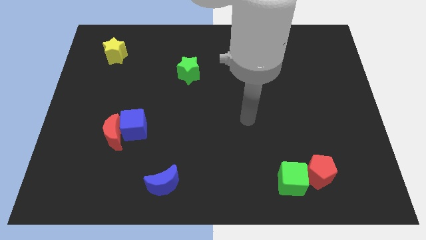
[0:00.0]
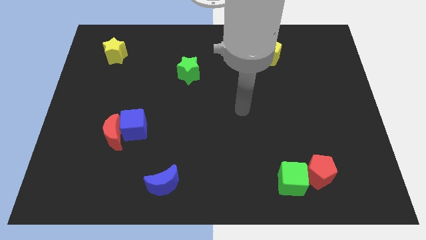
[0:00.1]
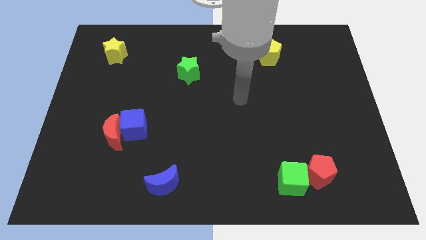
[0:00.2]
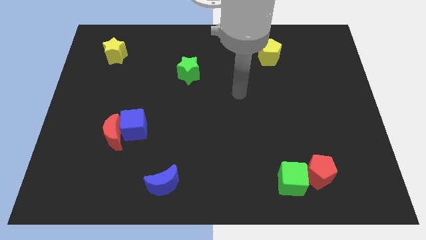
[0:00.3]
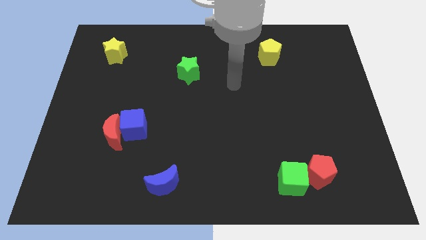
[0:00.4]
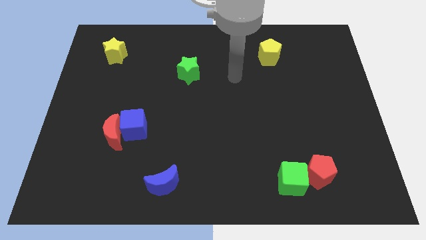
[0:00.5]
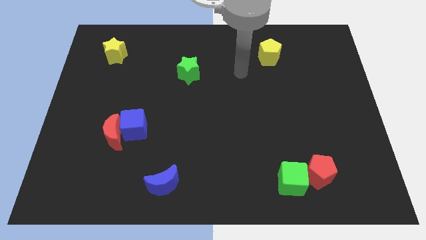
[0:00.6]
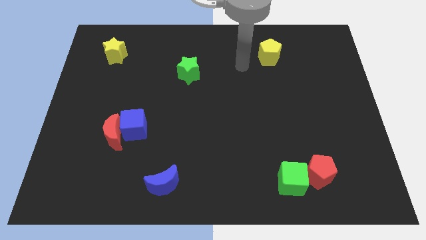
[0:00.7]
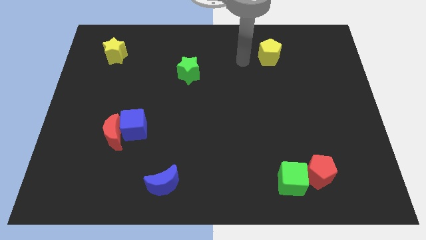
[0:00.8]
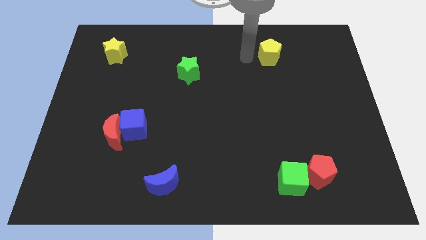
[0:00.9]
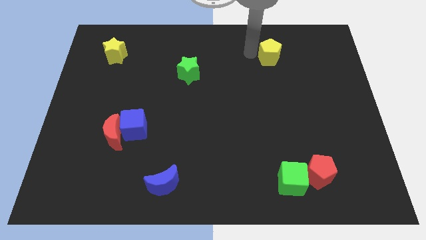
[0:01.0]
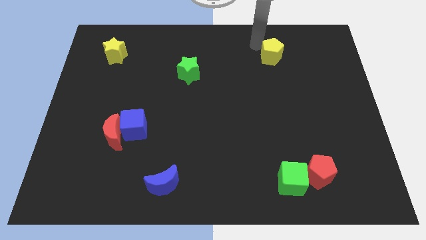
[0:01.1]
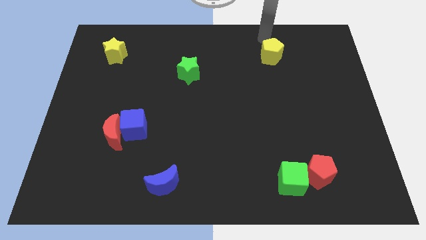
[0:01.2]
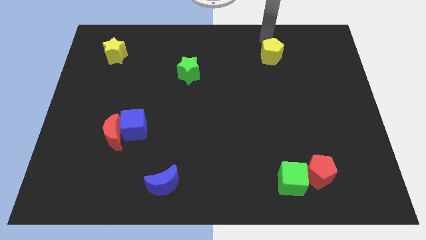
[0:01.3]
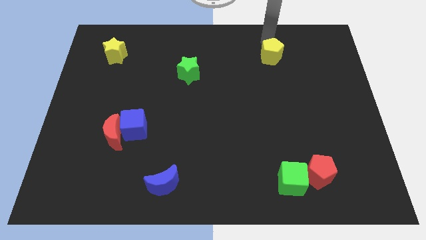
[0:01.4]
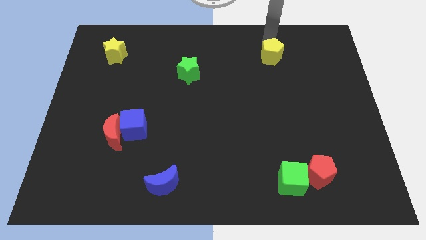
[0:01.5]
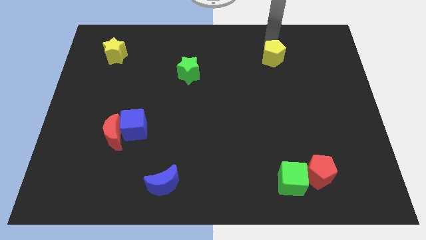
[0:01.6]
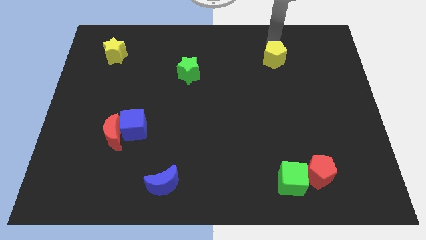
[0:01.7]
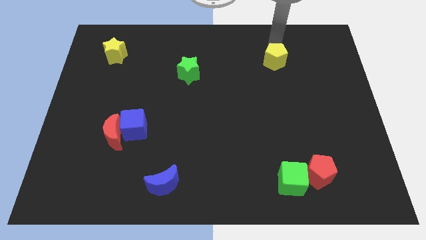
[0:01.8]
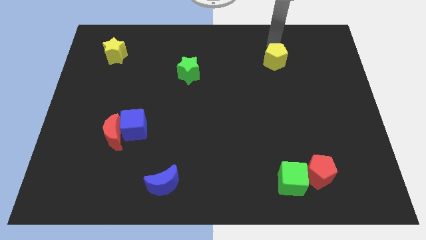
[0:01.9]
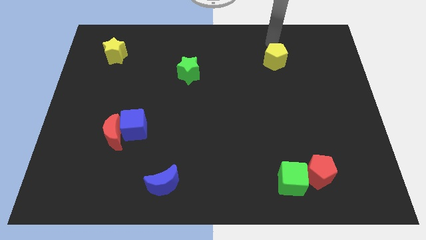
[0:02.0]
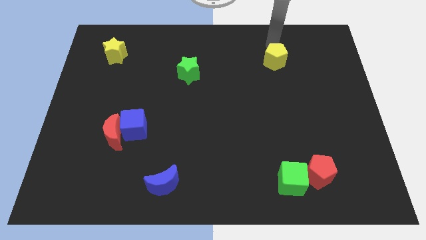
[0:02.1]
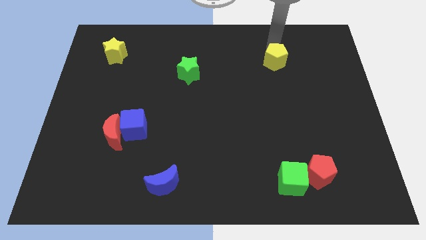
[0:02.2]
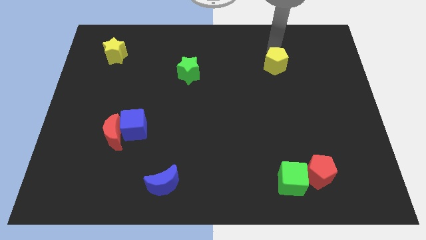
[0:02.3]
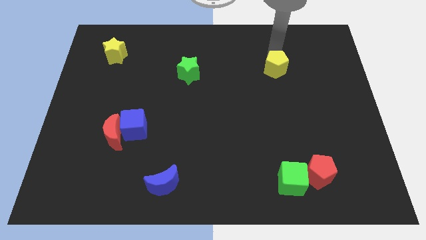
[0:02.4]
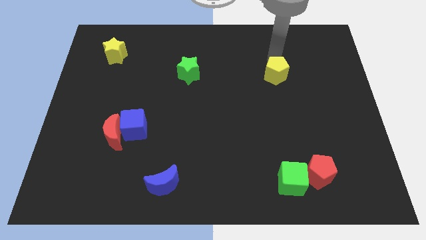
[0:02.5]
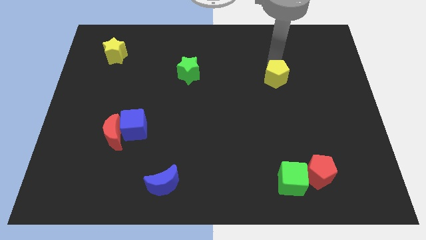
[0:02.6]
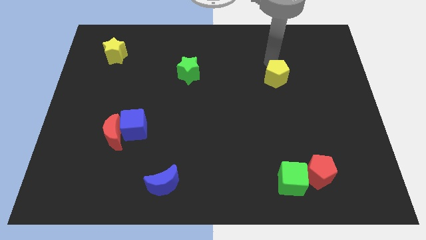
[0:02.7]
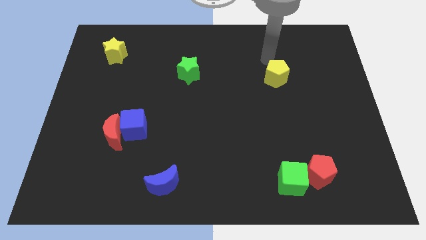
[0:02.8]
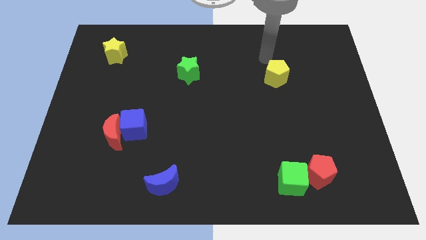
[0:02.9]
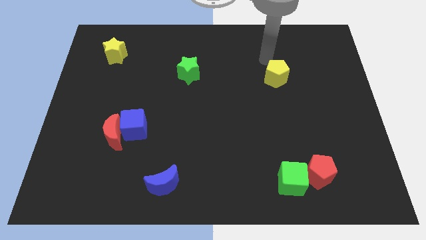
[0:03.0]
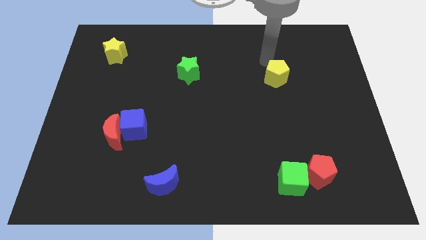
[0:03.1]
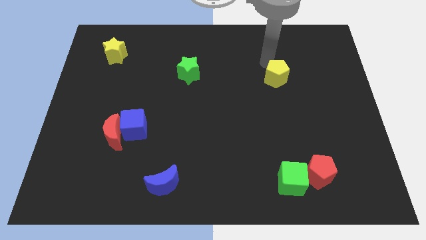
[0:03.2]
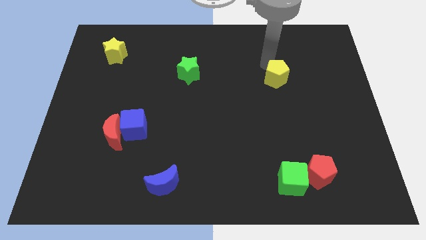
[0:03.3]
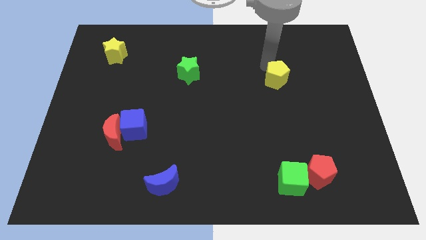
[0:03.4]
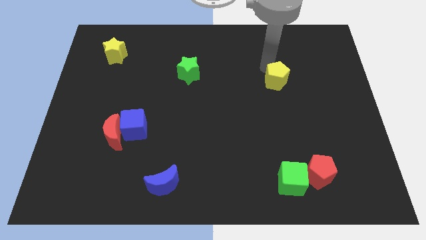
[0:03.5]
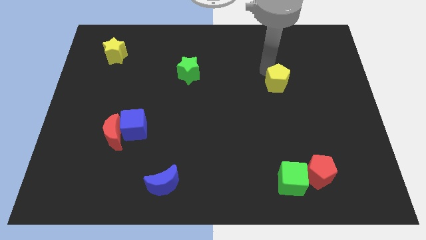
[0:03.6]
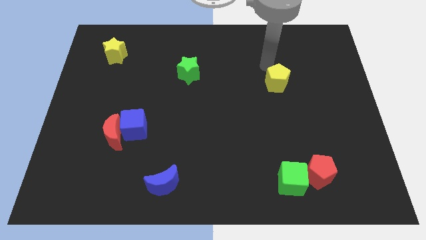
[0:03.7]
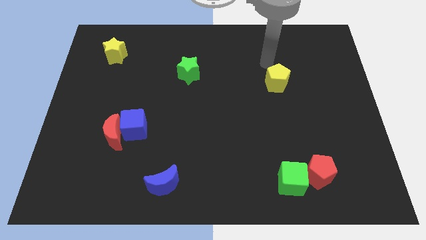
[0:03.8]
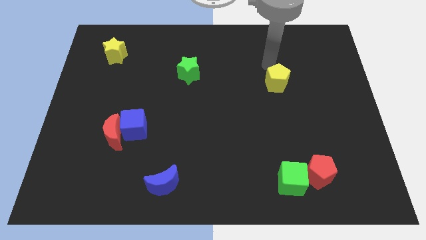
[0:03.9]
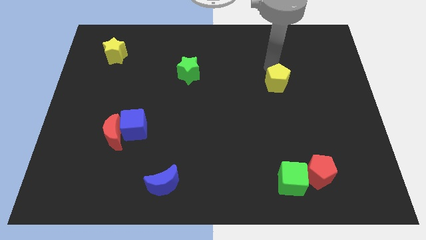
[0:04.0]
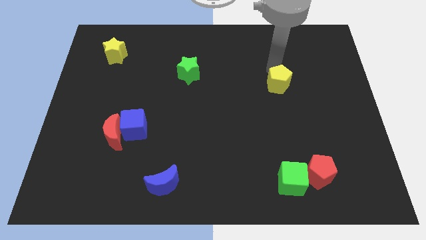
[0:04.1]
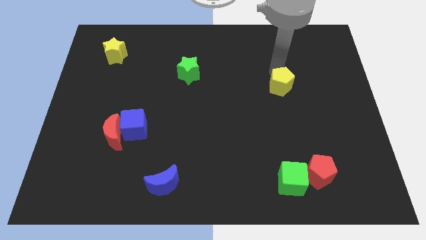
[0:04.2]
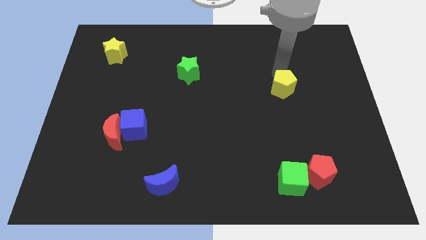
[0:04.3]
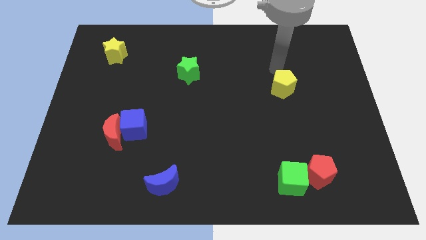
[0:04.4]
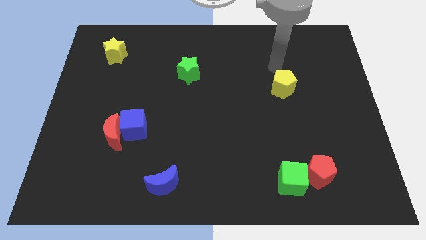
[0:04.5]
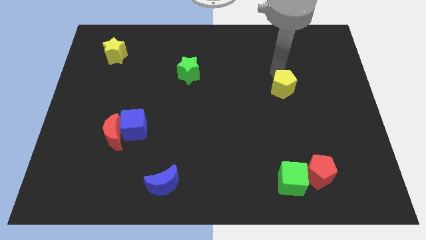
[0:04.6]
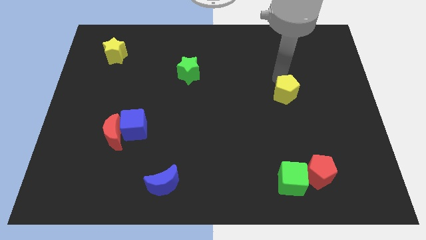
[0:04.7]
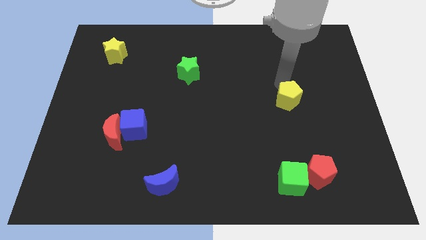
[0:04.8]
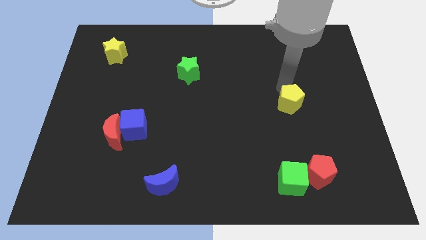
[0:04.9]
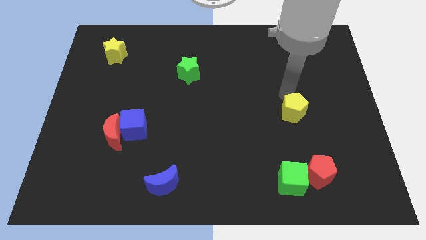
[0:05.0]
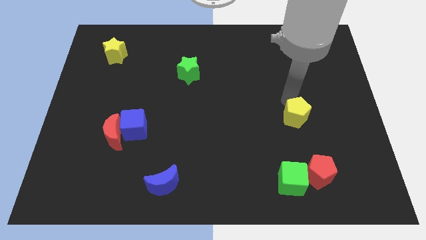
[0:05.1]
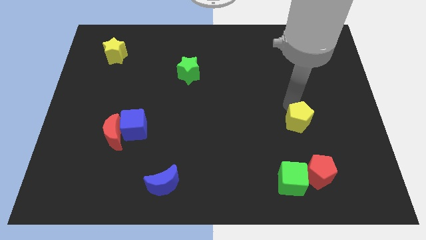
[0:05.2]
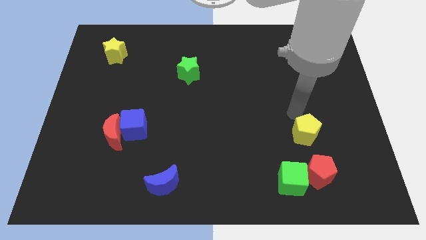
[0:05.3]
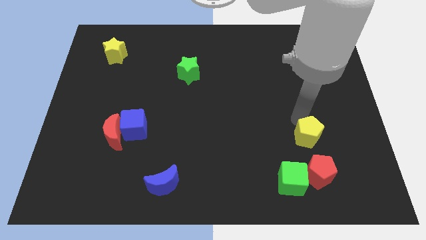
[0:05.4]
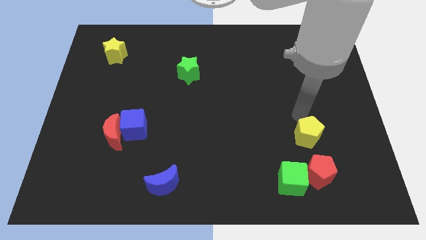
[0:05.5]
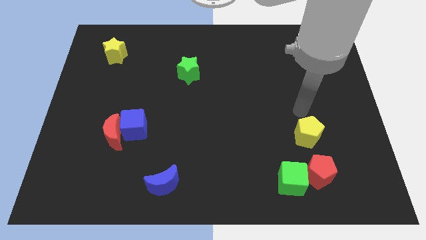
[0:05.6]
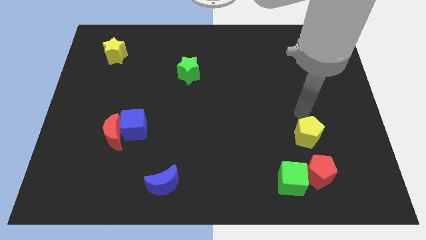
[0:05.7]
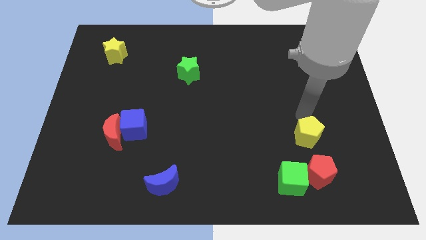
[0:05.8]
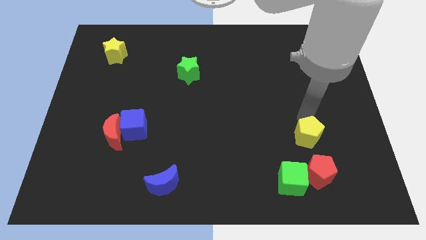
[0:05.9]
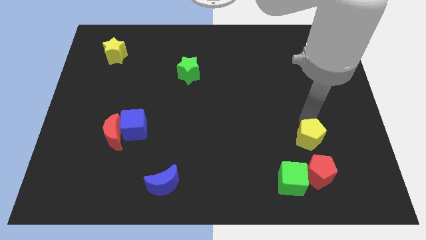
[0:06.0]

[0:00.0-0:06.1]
push the yellow pentagon diagonally up and to the right of the green cube

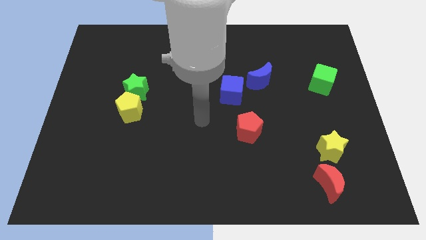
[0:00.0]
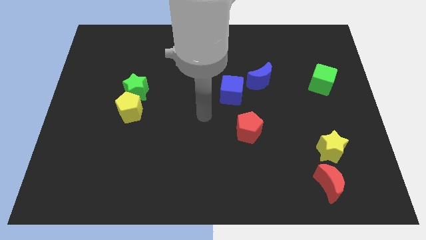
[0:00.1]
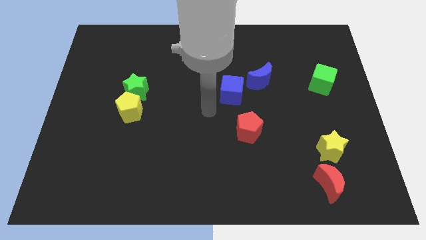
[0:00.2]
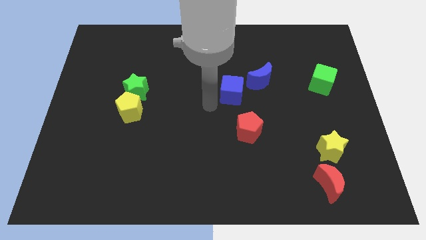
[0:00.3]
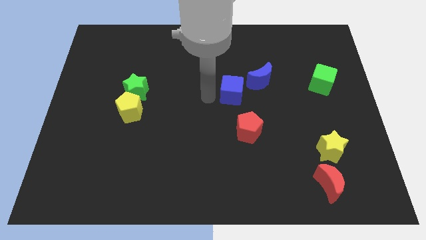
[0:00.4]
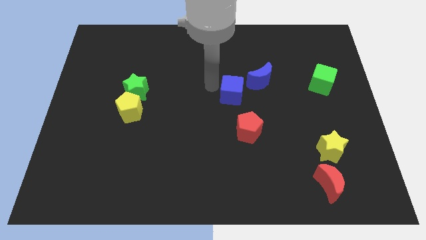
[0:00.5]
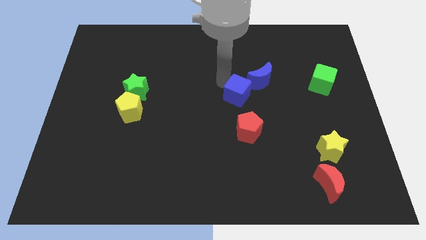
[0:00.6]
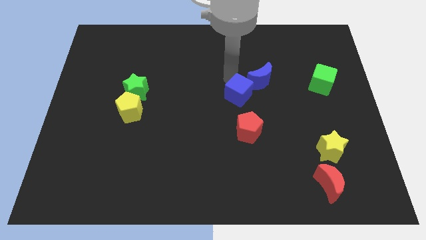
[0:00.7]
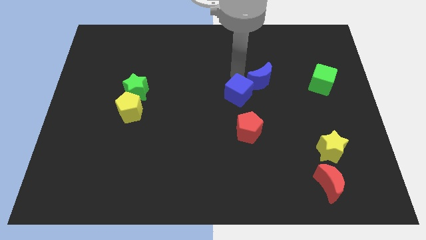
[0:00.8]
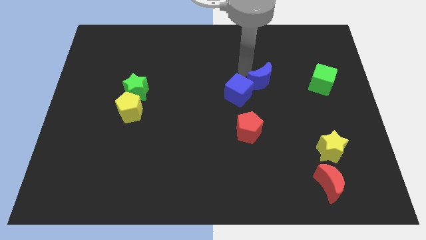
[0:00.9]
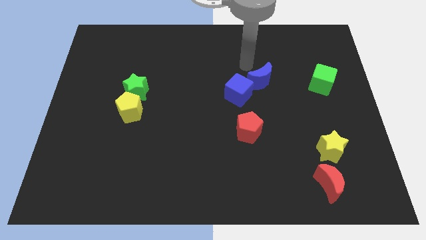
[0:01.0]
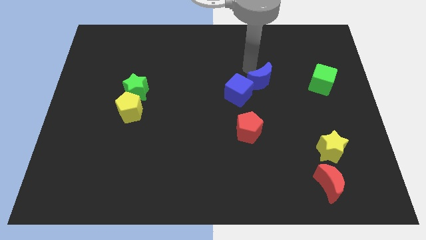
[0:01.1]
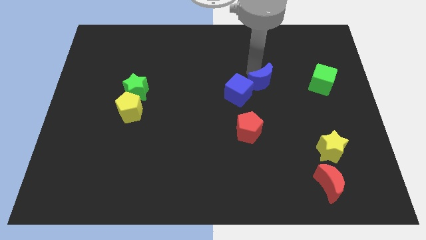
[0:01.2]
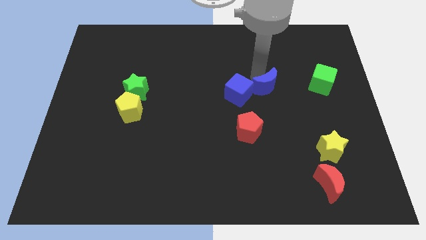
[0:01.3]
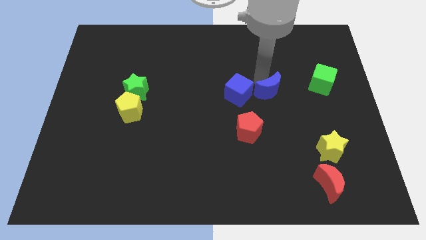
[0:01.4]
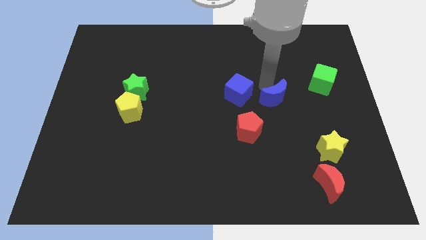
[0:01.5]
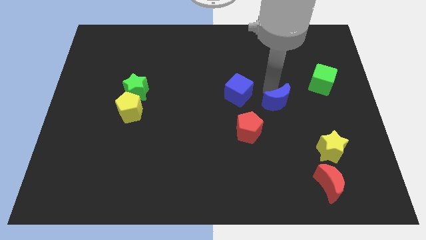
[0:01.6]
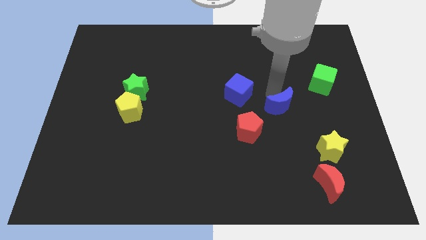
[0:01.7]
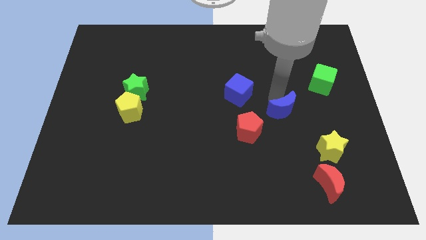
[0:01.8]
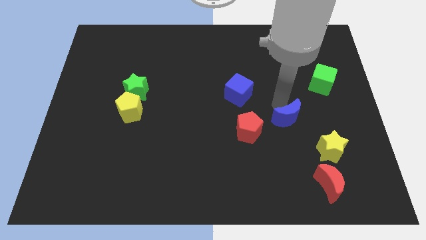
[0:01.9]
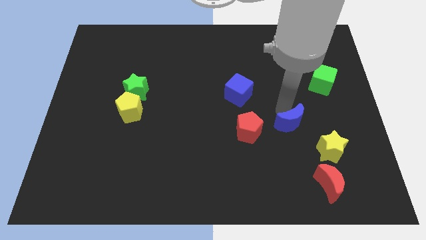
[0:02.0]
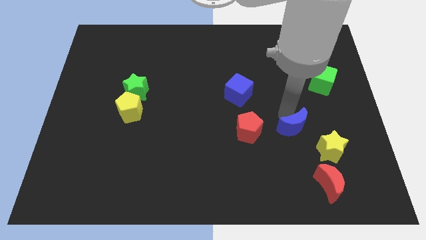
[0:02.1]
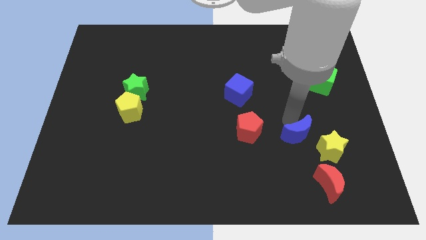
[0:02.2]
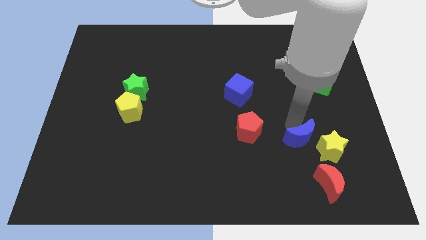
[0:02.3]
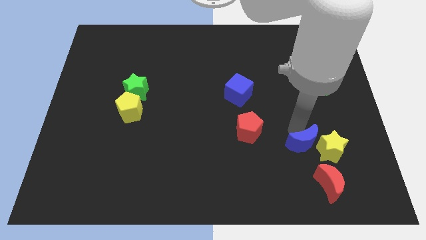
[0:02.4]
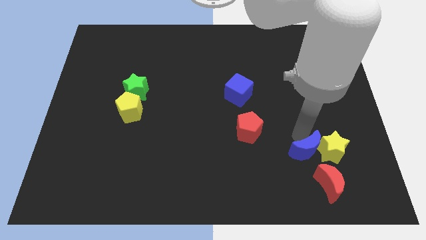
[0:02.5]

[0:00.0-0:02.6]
move the blue moon to the bottom left of the yellow star
